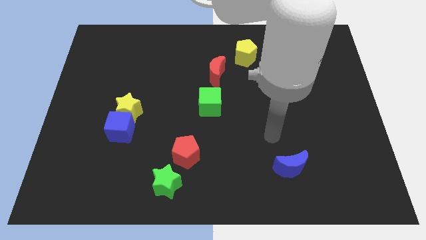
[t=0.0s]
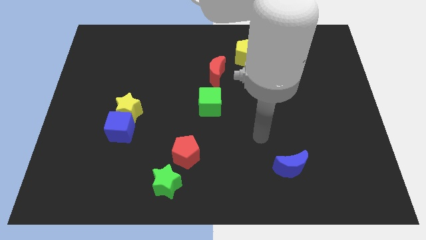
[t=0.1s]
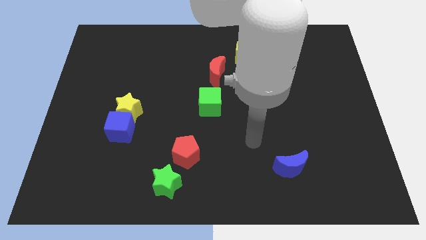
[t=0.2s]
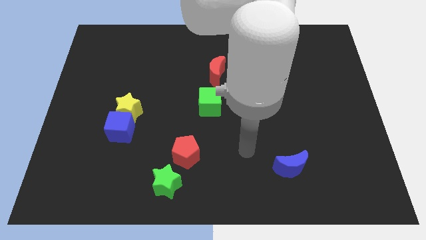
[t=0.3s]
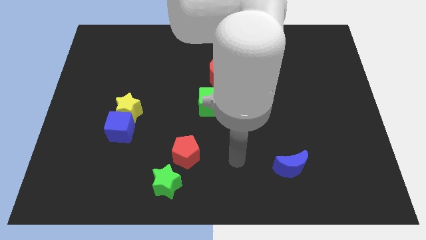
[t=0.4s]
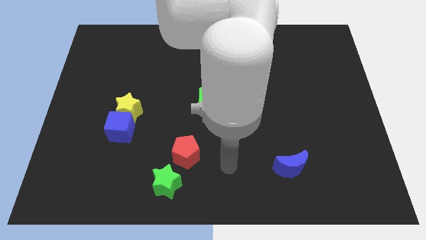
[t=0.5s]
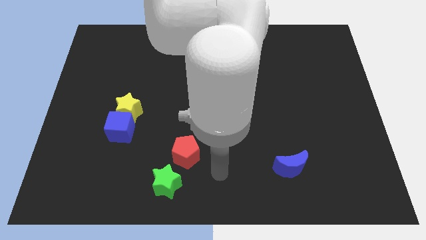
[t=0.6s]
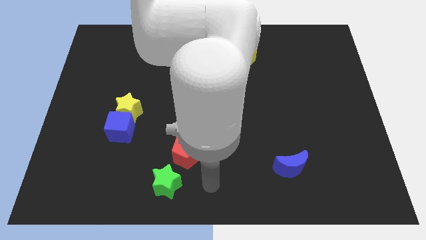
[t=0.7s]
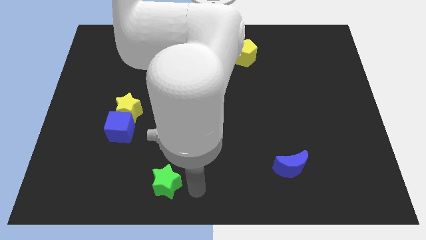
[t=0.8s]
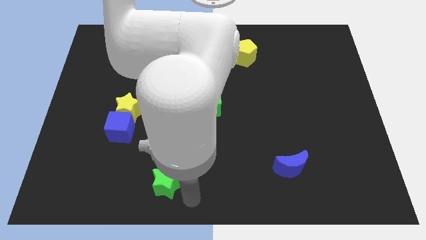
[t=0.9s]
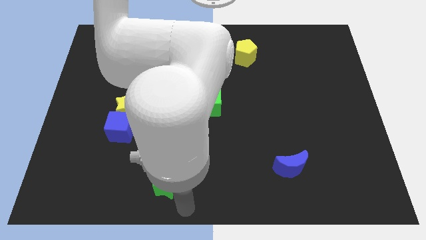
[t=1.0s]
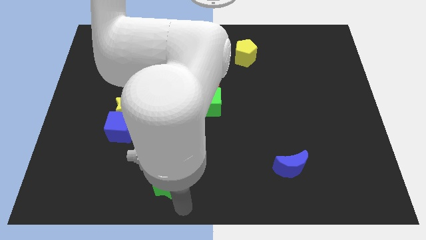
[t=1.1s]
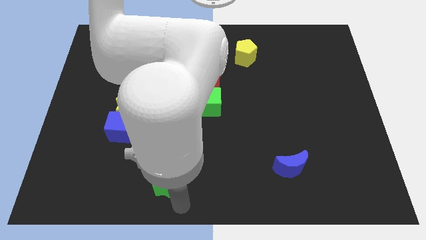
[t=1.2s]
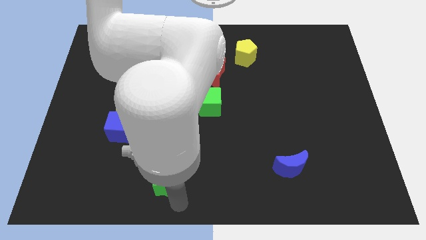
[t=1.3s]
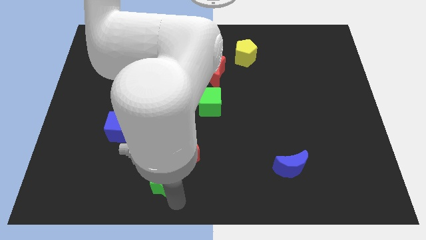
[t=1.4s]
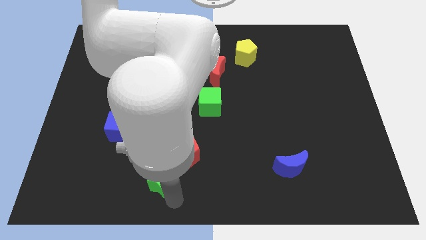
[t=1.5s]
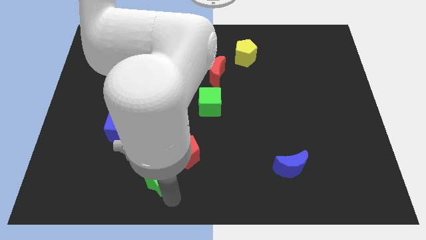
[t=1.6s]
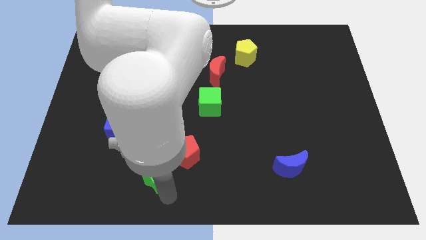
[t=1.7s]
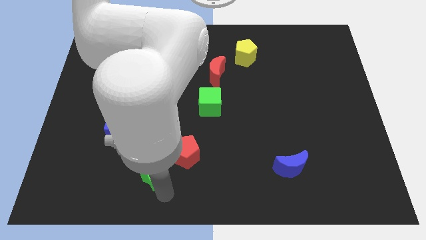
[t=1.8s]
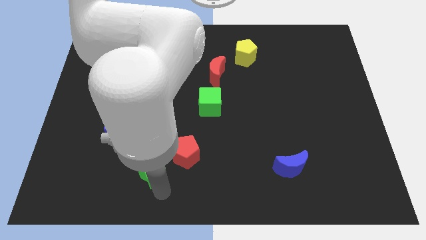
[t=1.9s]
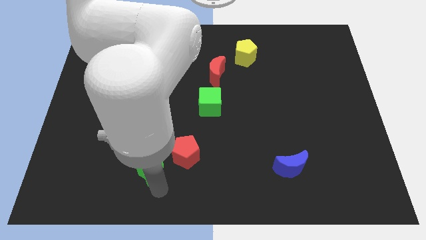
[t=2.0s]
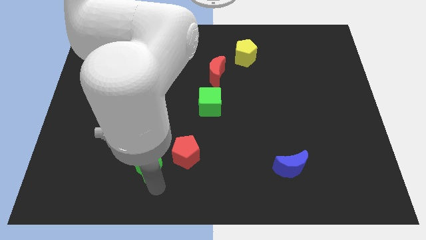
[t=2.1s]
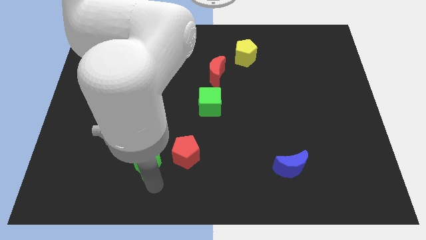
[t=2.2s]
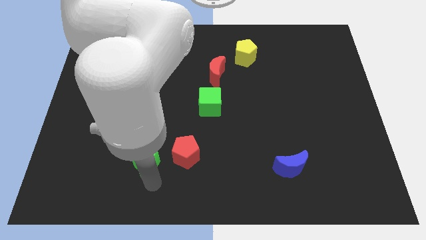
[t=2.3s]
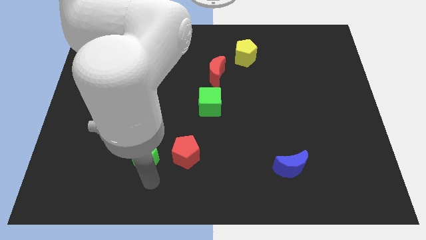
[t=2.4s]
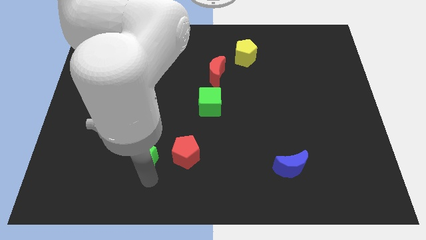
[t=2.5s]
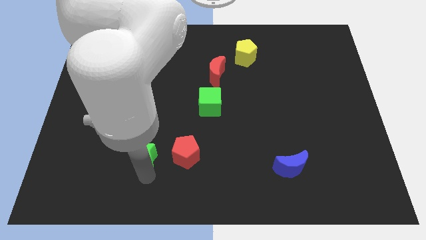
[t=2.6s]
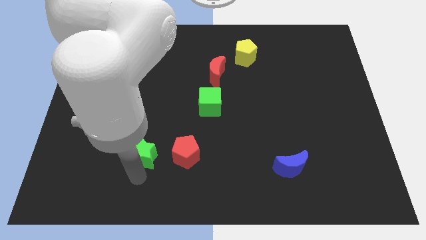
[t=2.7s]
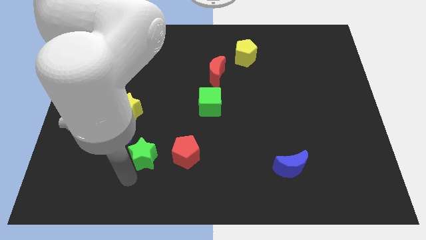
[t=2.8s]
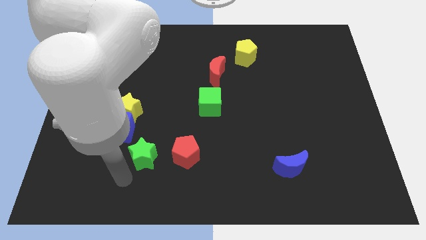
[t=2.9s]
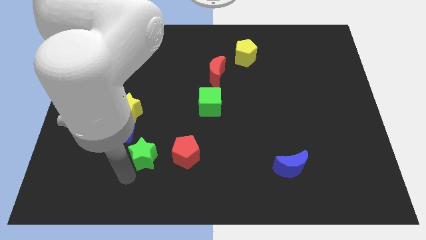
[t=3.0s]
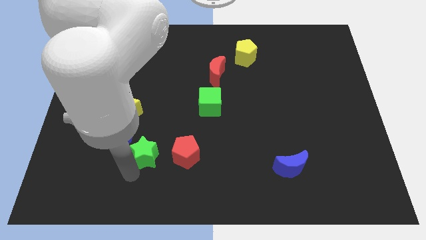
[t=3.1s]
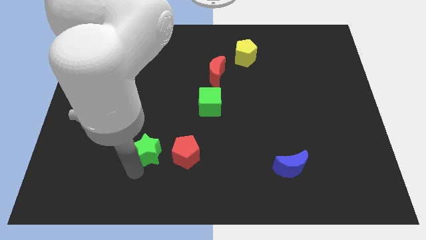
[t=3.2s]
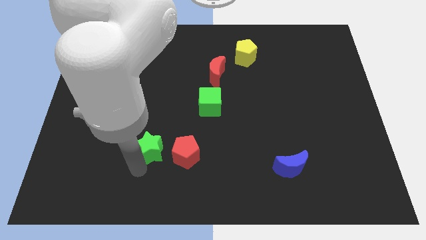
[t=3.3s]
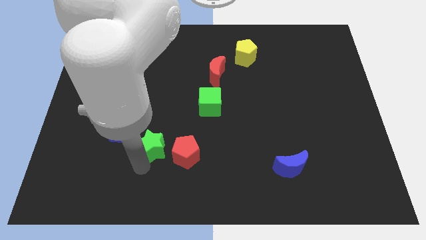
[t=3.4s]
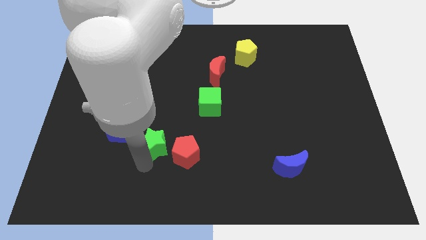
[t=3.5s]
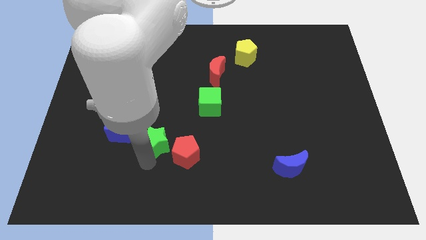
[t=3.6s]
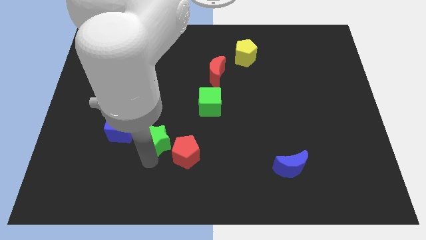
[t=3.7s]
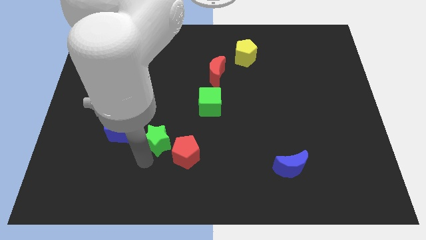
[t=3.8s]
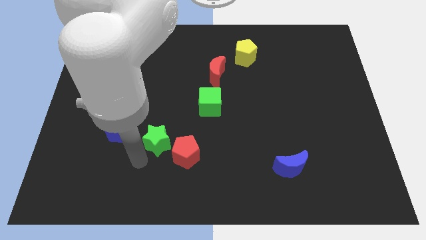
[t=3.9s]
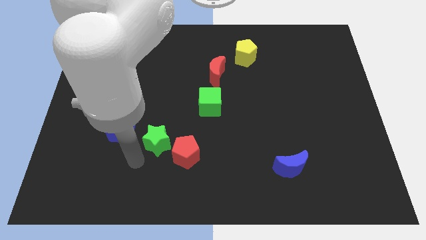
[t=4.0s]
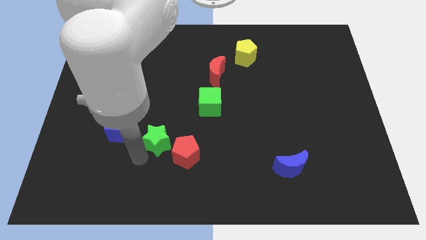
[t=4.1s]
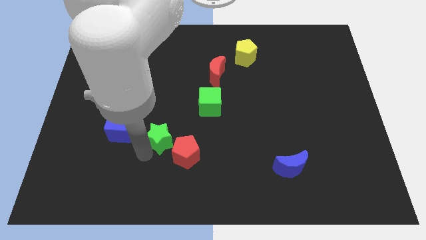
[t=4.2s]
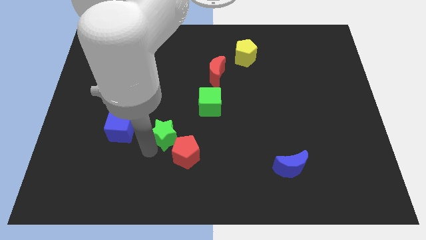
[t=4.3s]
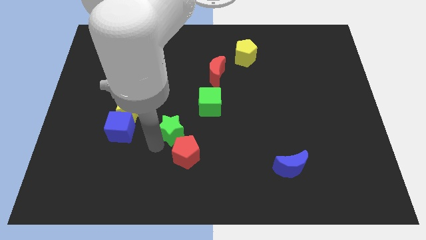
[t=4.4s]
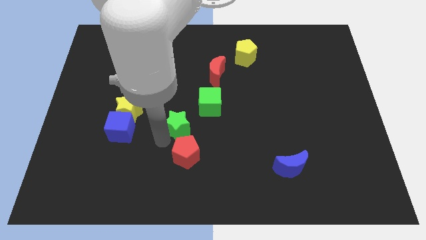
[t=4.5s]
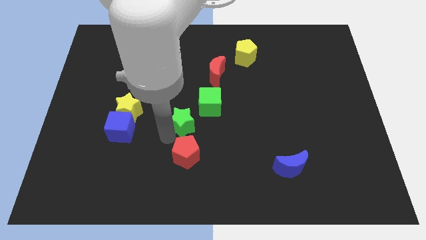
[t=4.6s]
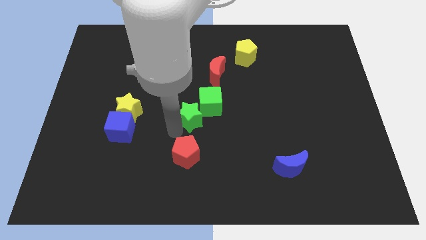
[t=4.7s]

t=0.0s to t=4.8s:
slide the green star next to the green cube

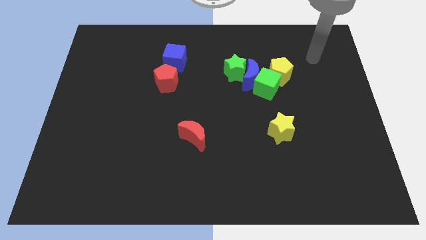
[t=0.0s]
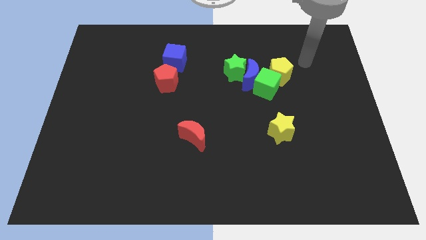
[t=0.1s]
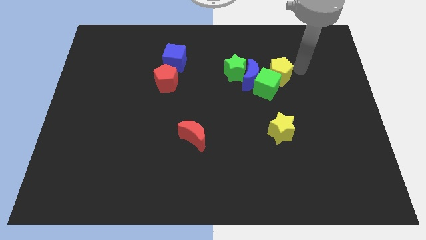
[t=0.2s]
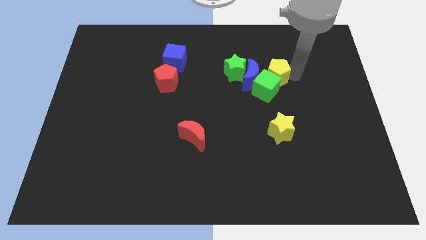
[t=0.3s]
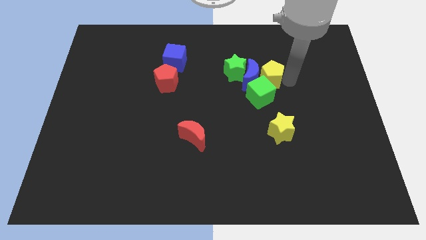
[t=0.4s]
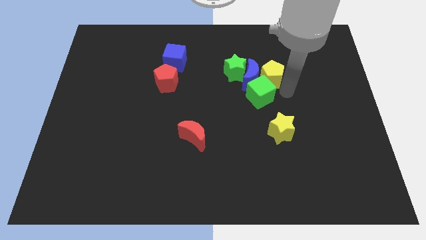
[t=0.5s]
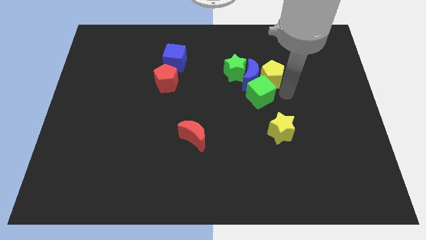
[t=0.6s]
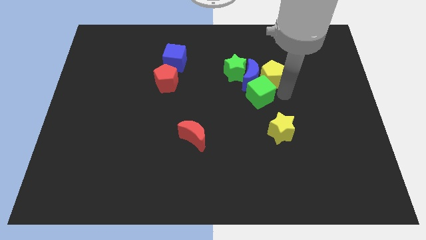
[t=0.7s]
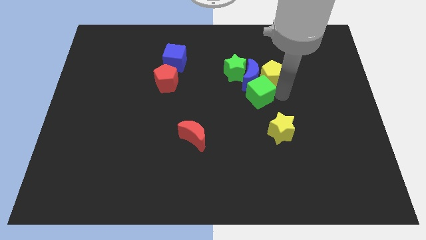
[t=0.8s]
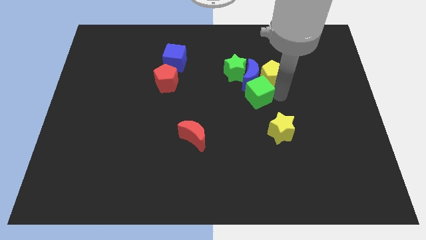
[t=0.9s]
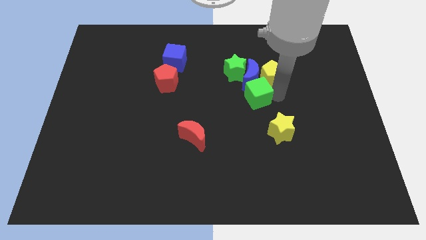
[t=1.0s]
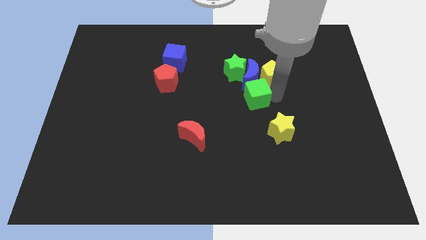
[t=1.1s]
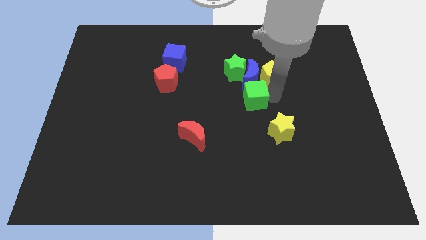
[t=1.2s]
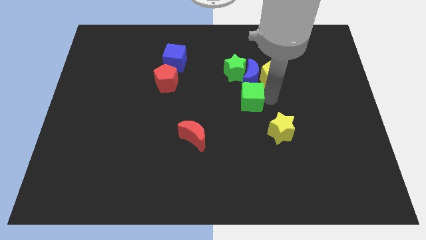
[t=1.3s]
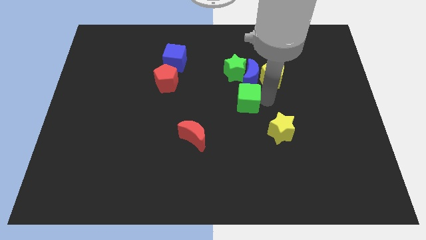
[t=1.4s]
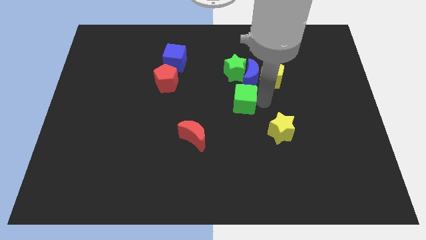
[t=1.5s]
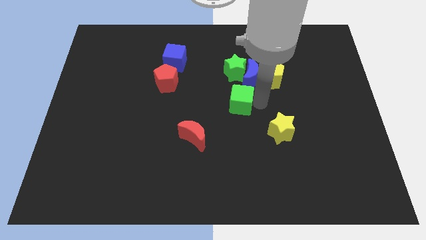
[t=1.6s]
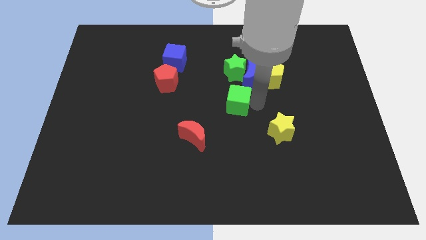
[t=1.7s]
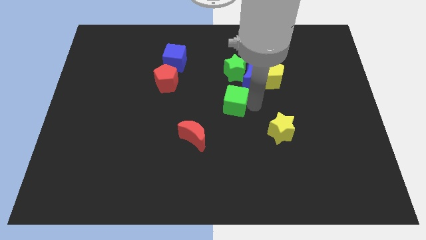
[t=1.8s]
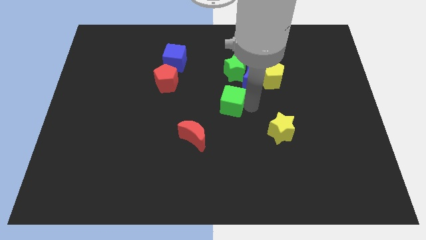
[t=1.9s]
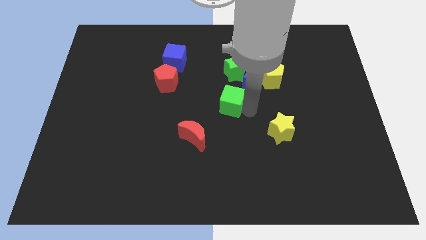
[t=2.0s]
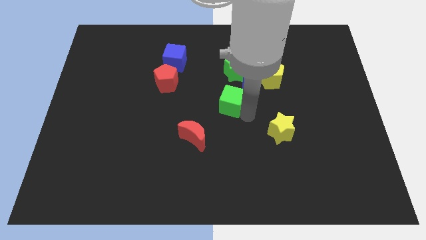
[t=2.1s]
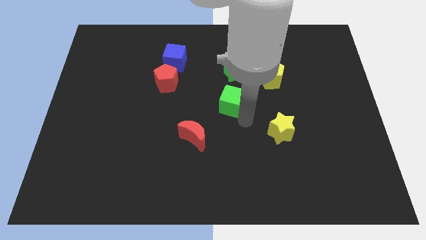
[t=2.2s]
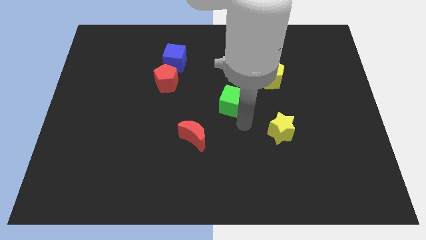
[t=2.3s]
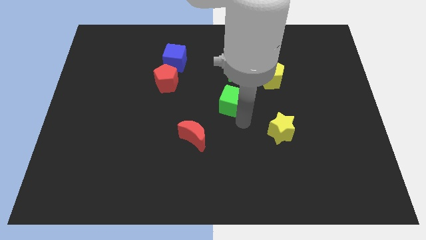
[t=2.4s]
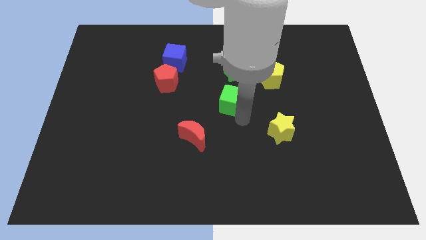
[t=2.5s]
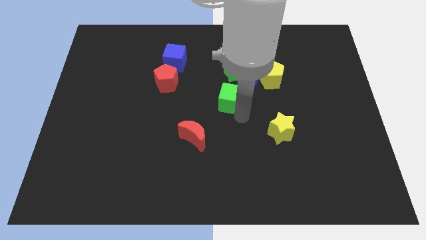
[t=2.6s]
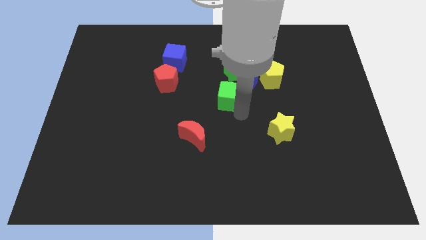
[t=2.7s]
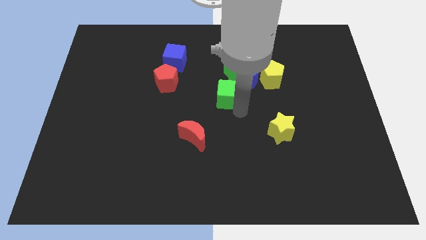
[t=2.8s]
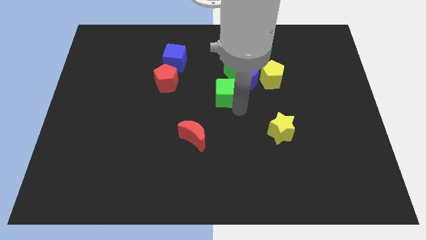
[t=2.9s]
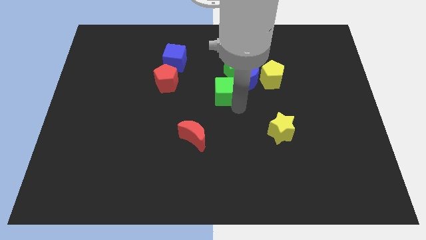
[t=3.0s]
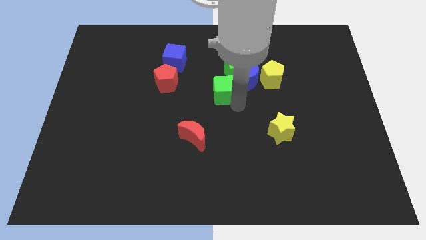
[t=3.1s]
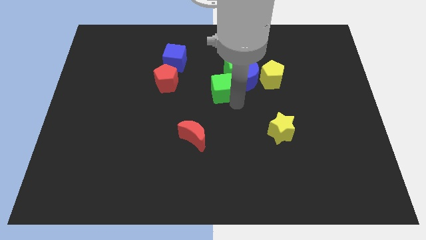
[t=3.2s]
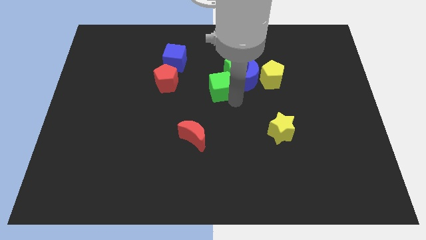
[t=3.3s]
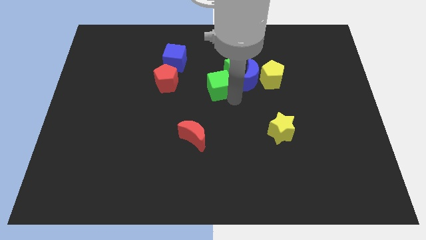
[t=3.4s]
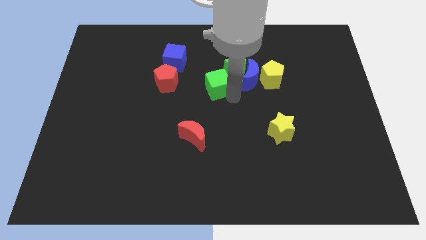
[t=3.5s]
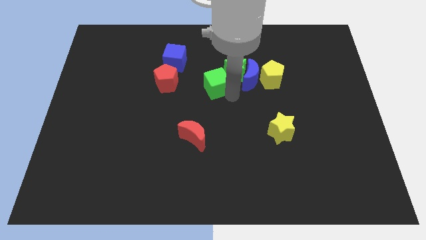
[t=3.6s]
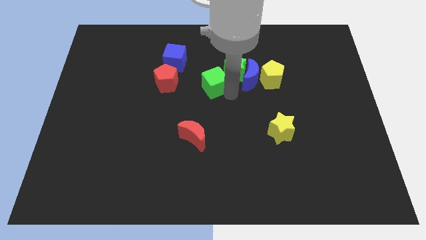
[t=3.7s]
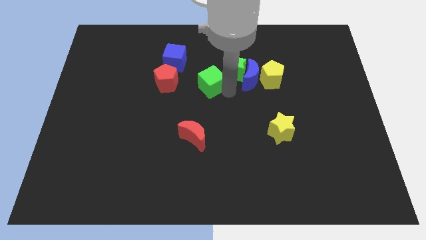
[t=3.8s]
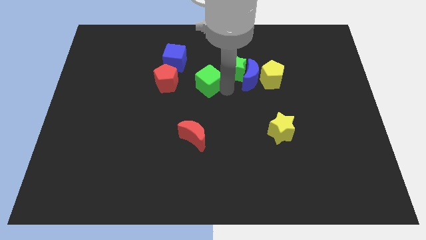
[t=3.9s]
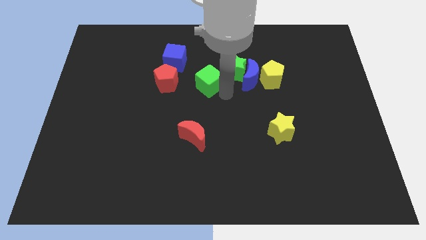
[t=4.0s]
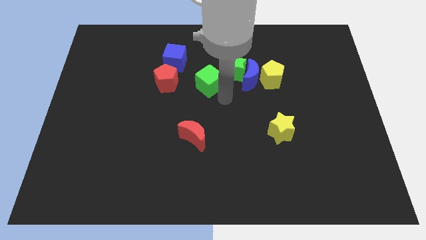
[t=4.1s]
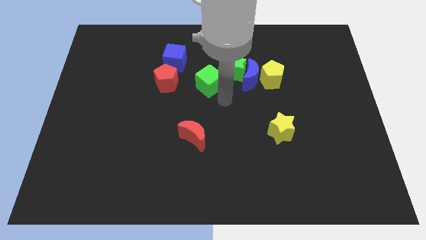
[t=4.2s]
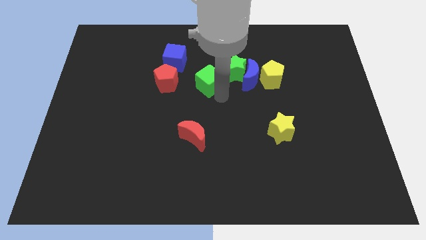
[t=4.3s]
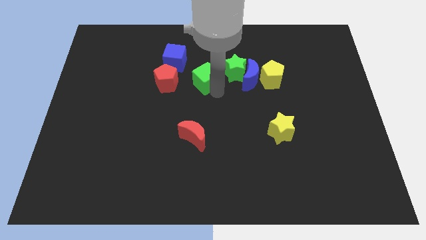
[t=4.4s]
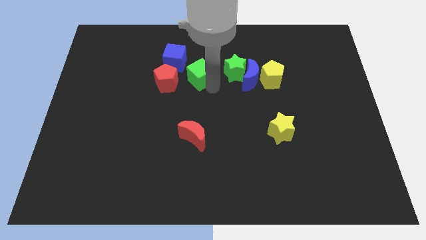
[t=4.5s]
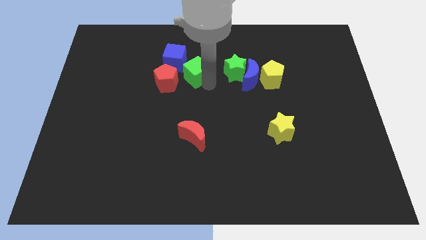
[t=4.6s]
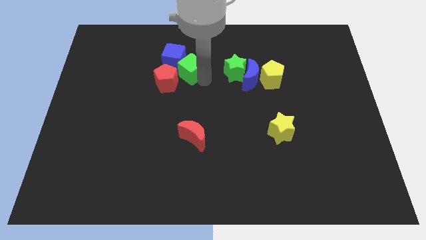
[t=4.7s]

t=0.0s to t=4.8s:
move the green cube towards the blue cube
